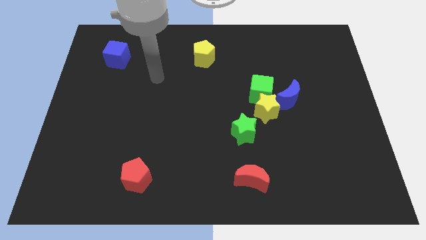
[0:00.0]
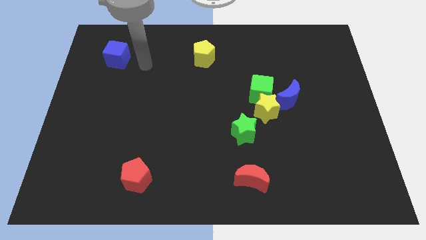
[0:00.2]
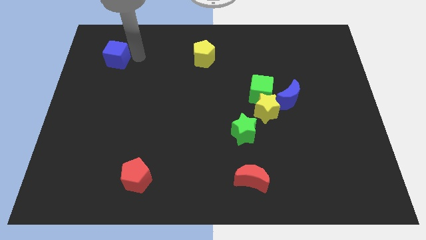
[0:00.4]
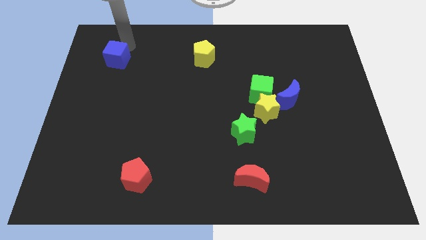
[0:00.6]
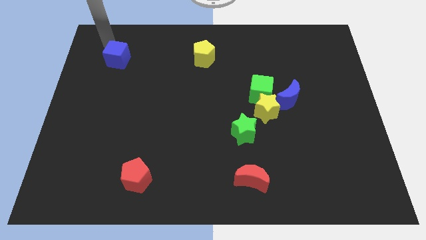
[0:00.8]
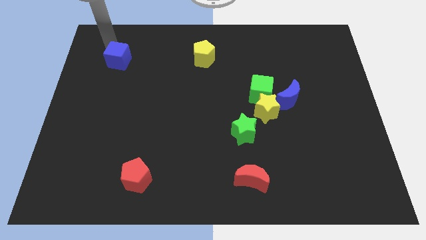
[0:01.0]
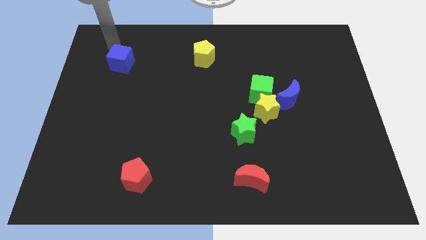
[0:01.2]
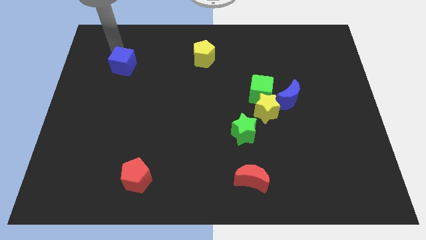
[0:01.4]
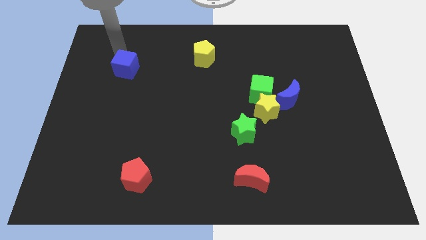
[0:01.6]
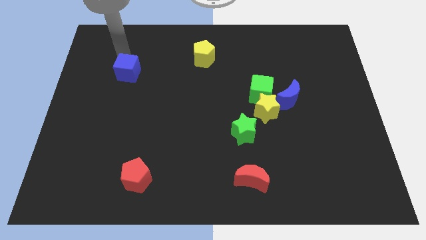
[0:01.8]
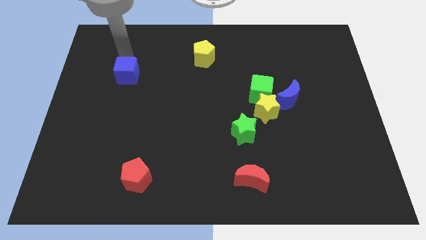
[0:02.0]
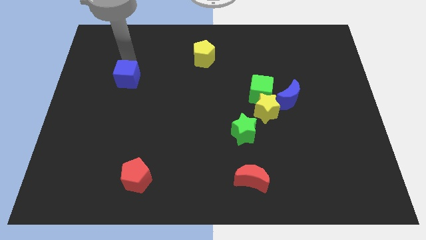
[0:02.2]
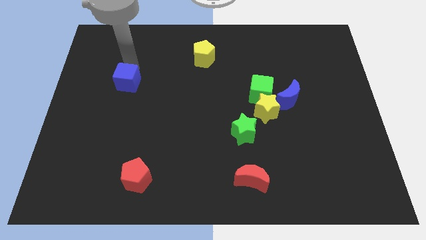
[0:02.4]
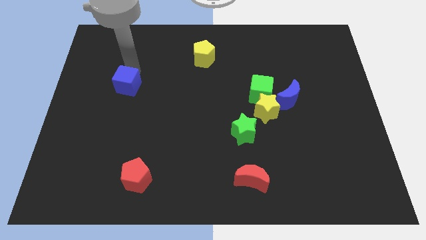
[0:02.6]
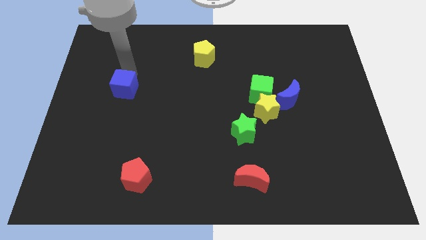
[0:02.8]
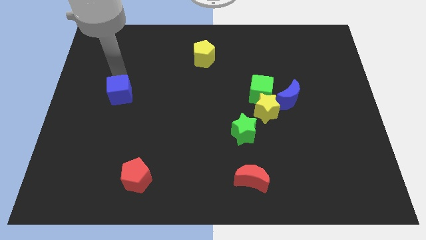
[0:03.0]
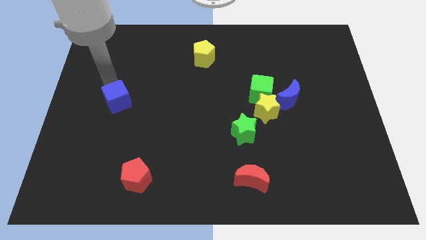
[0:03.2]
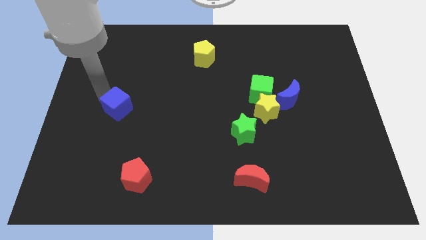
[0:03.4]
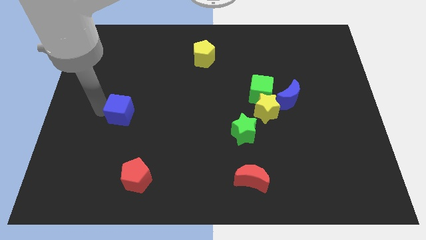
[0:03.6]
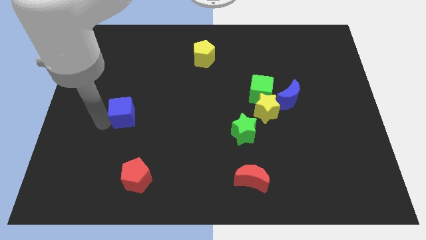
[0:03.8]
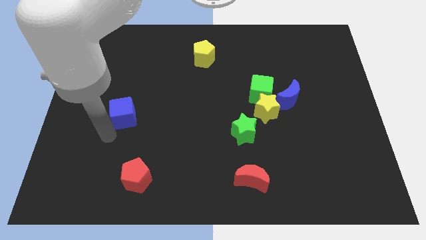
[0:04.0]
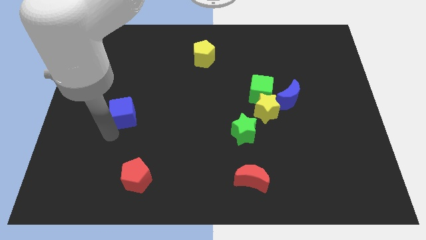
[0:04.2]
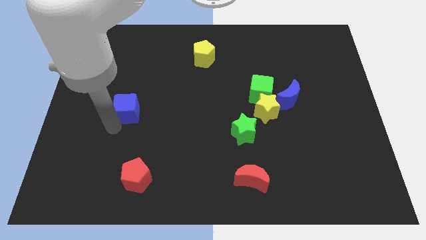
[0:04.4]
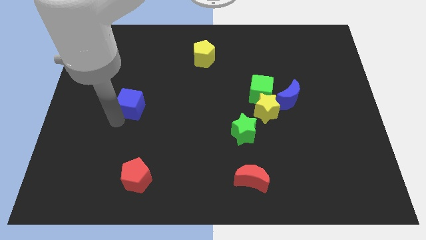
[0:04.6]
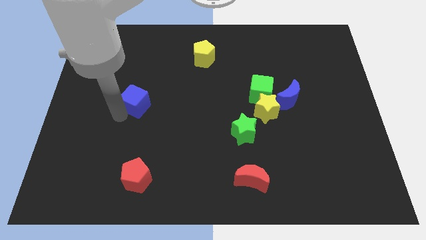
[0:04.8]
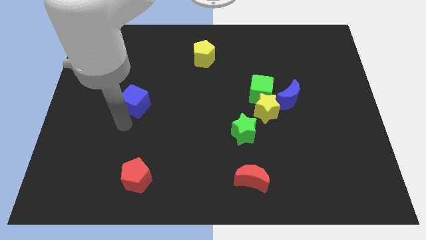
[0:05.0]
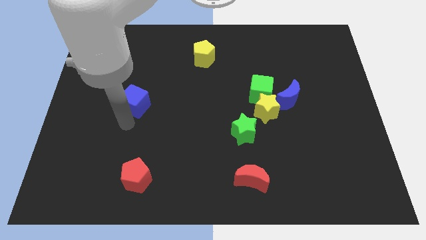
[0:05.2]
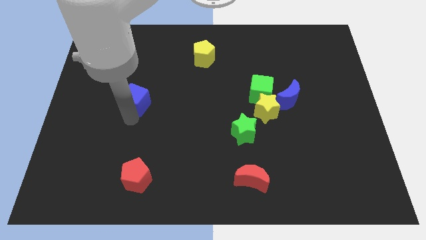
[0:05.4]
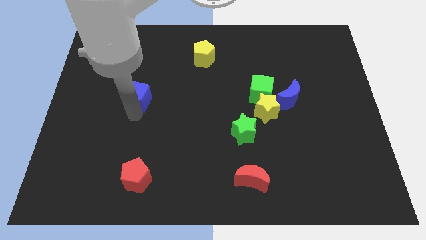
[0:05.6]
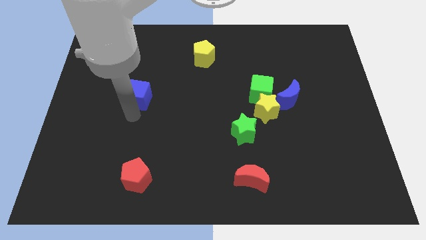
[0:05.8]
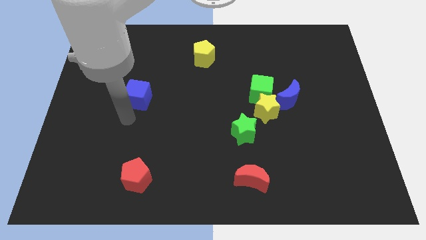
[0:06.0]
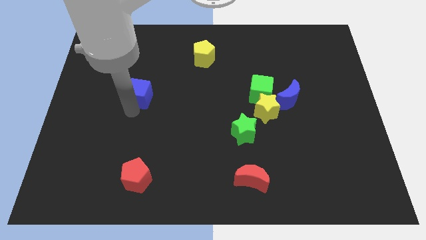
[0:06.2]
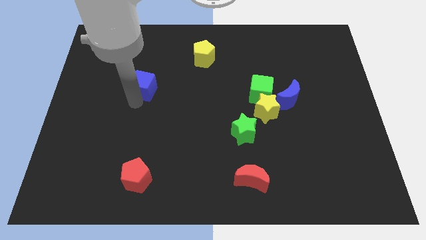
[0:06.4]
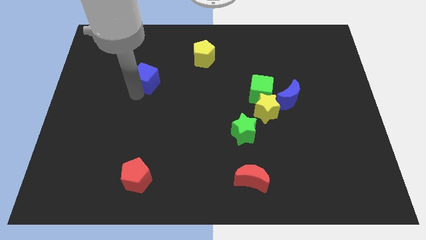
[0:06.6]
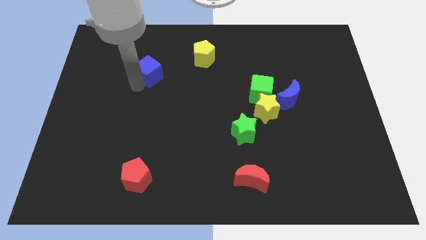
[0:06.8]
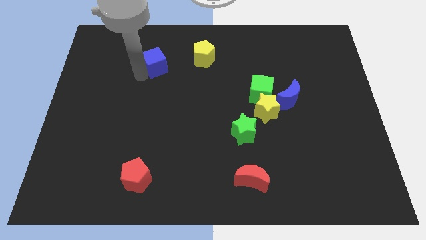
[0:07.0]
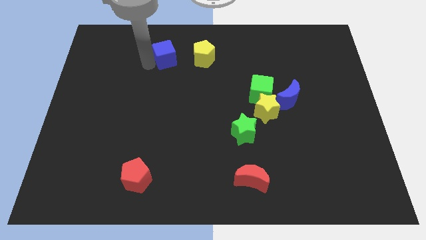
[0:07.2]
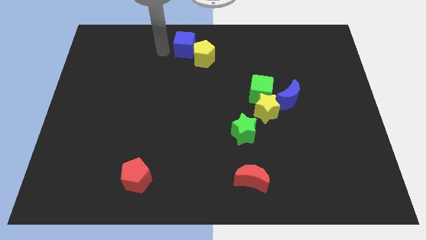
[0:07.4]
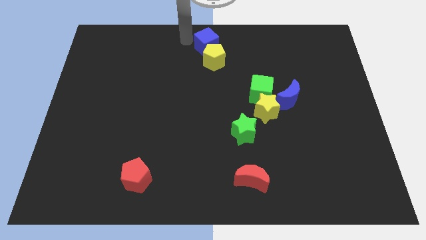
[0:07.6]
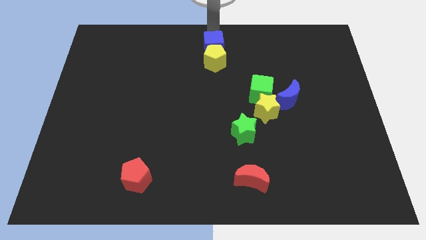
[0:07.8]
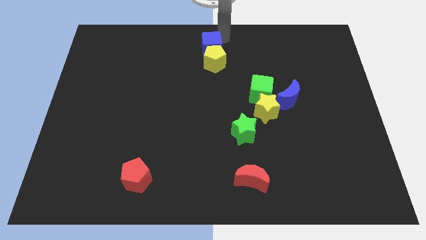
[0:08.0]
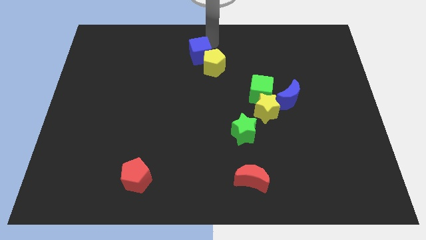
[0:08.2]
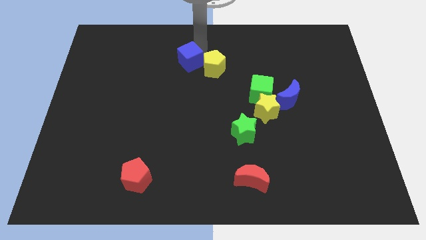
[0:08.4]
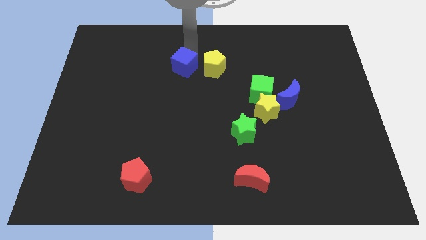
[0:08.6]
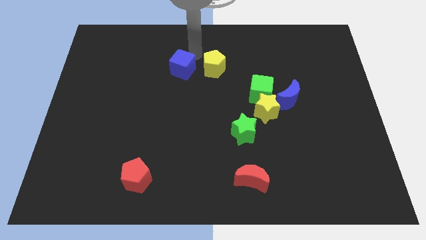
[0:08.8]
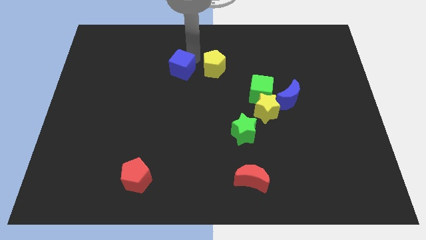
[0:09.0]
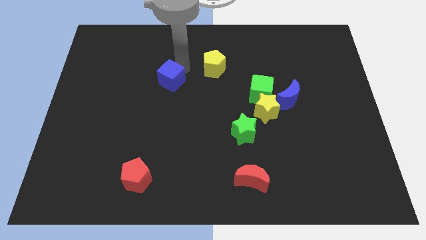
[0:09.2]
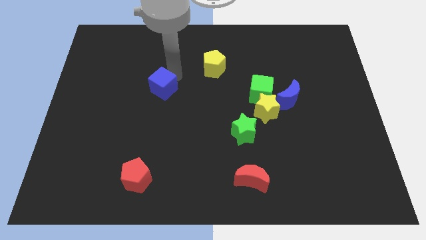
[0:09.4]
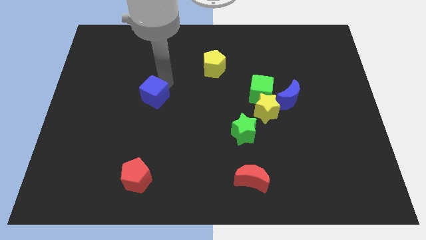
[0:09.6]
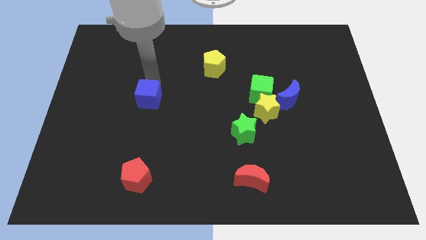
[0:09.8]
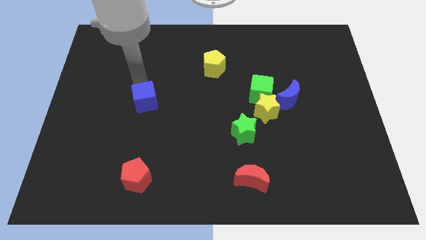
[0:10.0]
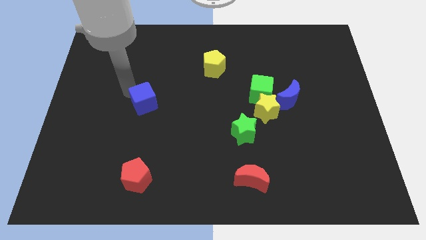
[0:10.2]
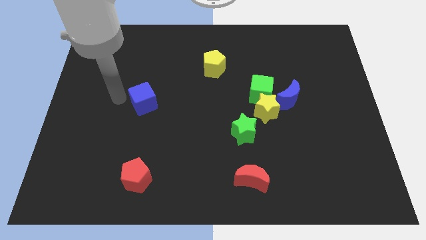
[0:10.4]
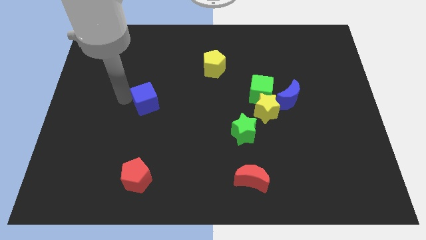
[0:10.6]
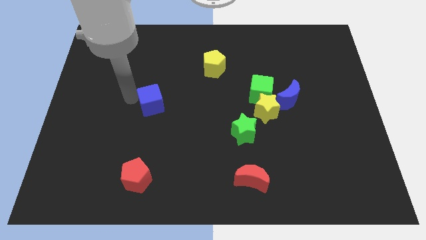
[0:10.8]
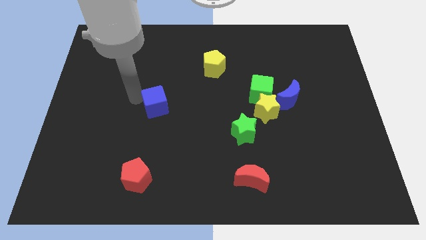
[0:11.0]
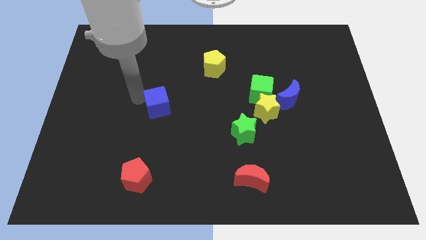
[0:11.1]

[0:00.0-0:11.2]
move the blue cube down and right

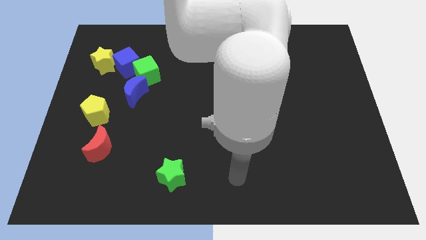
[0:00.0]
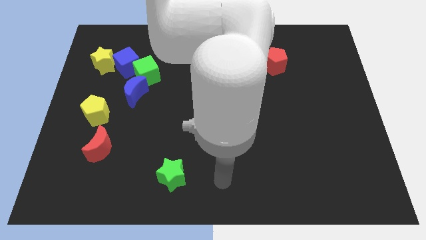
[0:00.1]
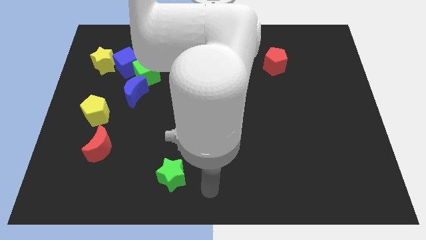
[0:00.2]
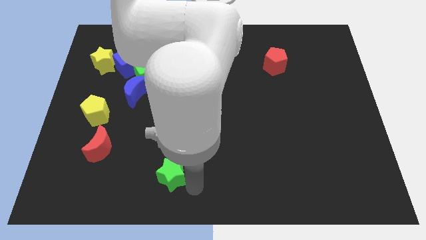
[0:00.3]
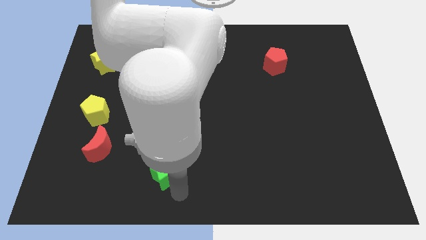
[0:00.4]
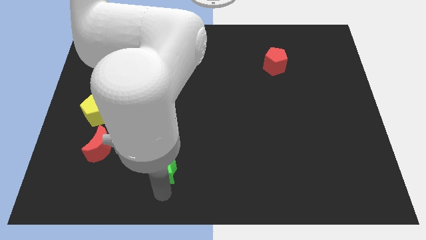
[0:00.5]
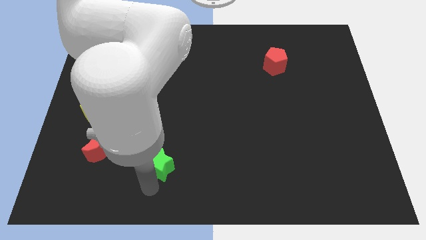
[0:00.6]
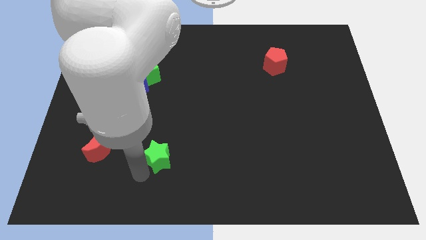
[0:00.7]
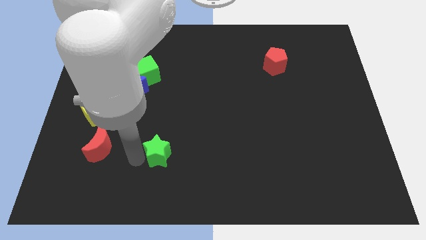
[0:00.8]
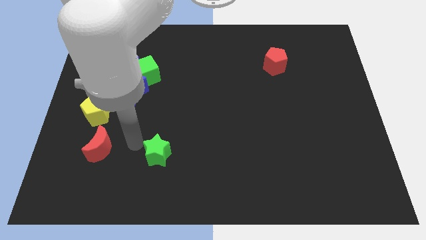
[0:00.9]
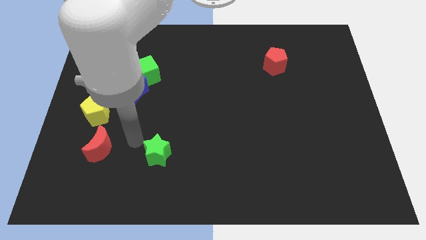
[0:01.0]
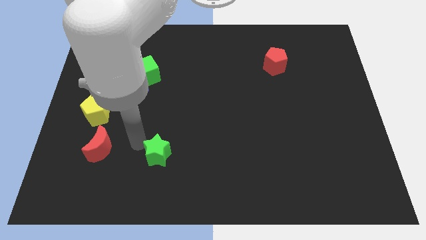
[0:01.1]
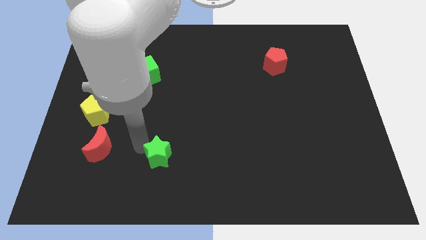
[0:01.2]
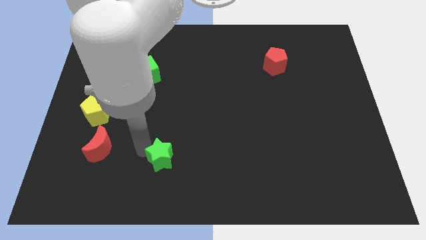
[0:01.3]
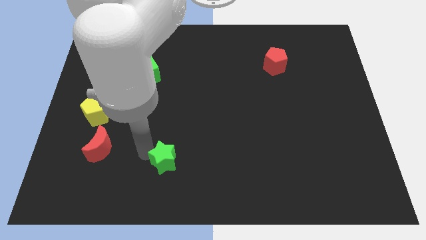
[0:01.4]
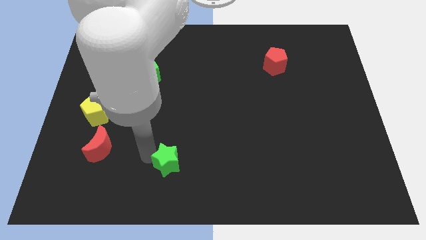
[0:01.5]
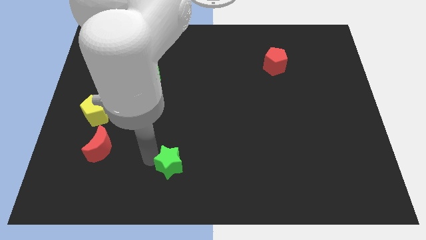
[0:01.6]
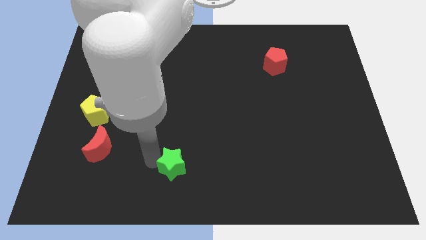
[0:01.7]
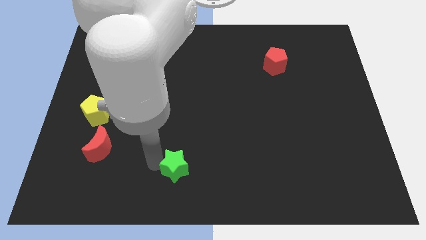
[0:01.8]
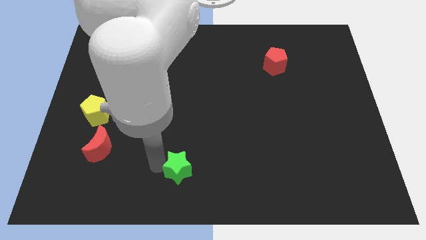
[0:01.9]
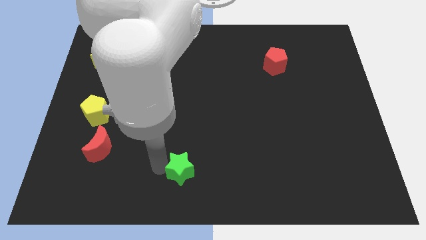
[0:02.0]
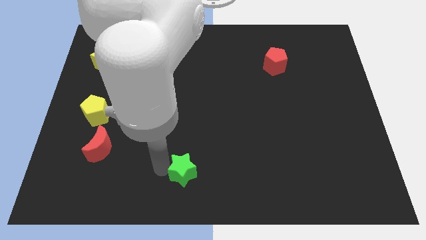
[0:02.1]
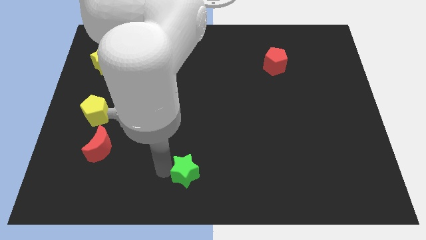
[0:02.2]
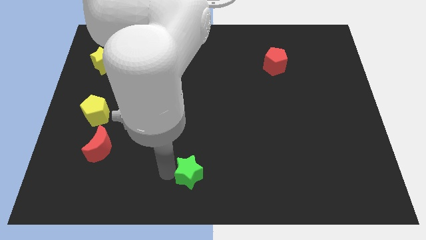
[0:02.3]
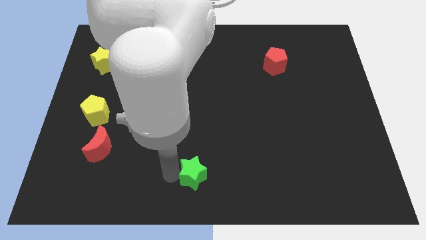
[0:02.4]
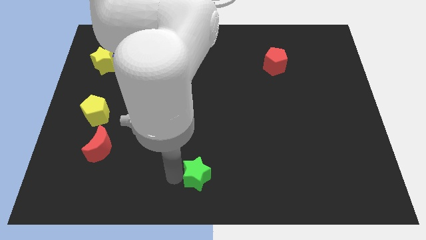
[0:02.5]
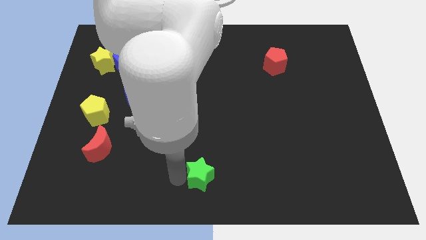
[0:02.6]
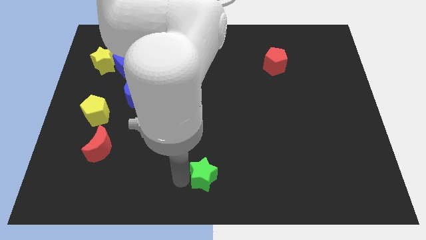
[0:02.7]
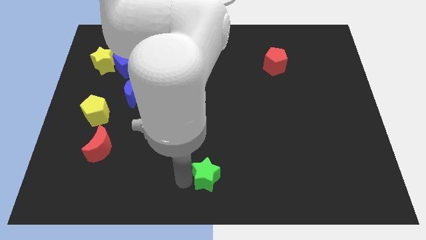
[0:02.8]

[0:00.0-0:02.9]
slightly move the green star right
